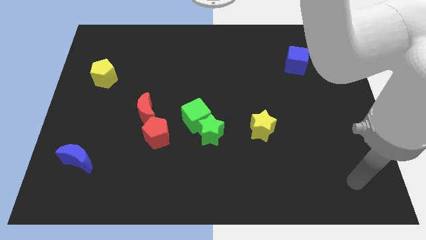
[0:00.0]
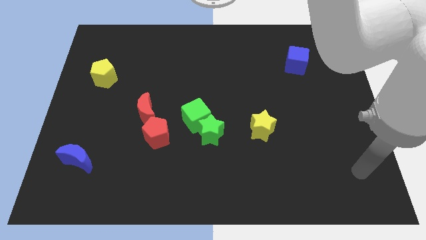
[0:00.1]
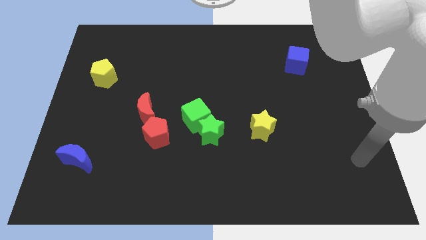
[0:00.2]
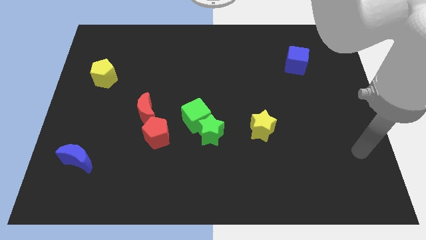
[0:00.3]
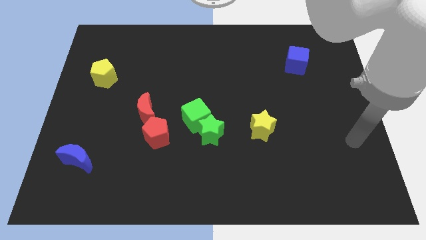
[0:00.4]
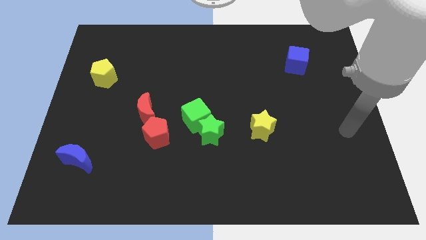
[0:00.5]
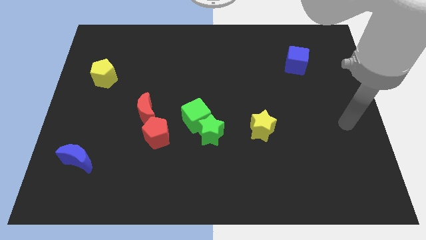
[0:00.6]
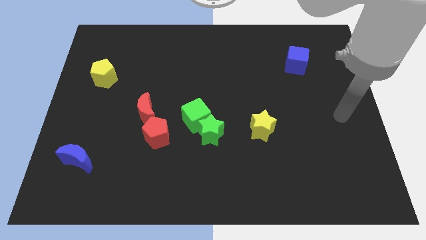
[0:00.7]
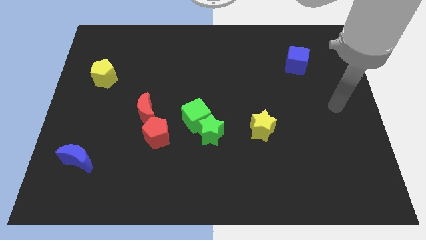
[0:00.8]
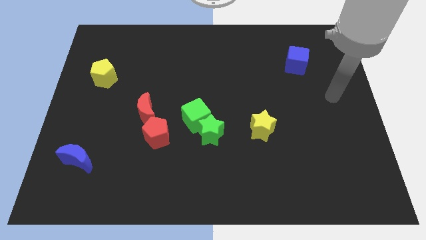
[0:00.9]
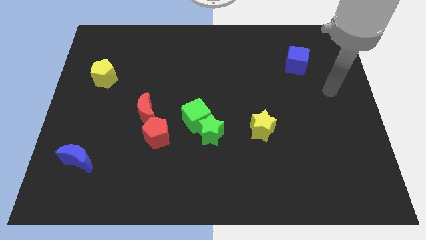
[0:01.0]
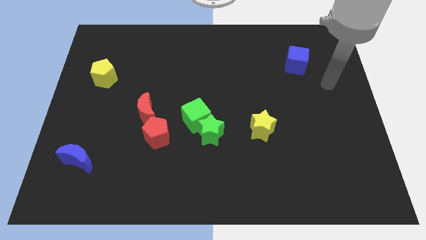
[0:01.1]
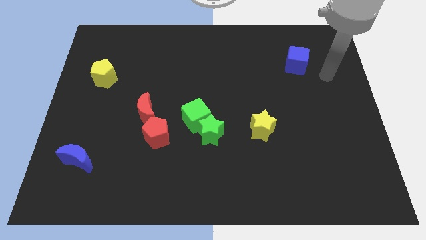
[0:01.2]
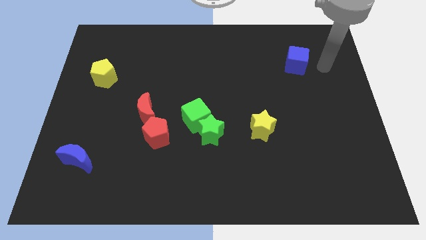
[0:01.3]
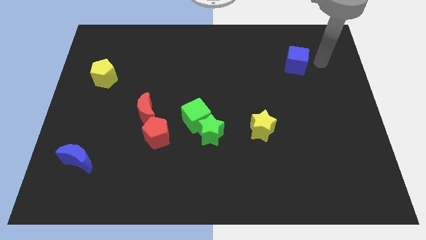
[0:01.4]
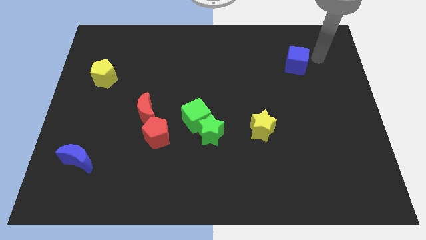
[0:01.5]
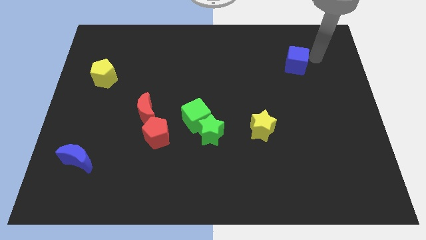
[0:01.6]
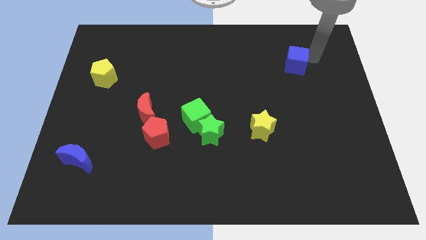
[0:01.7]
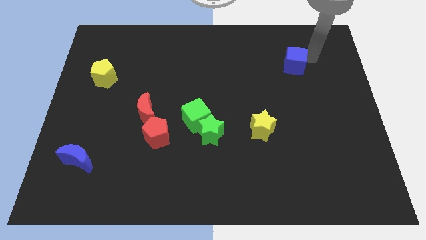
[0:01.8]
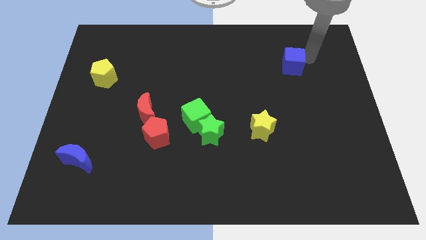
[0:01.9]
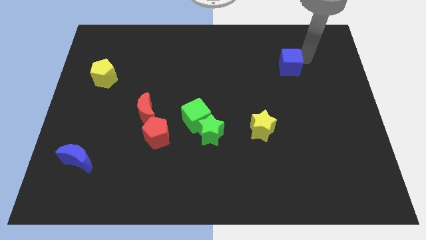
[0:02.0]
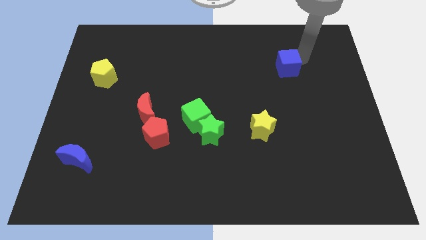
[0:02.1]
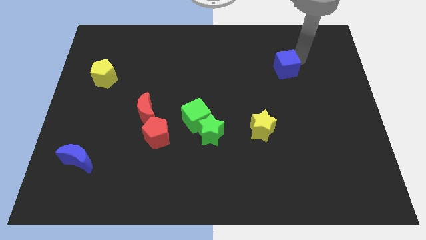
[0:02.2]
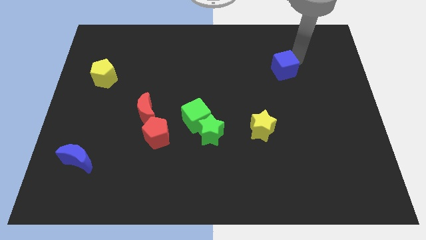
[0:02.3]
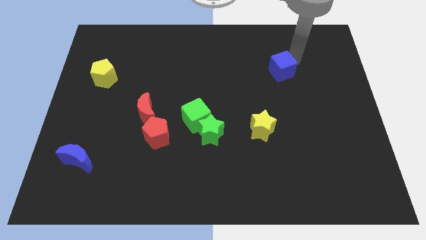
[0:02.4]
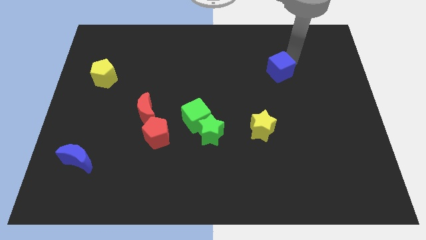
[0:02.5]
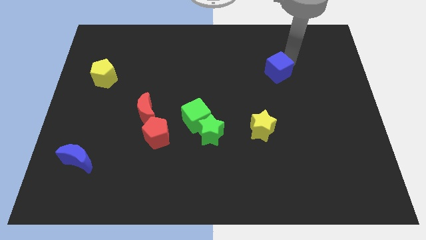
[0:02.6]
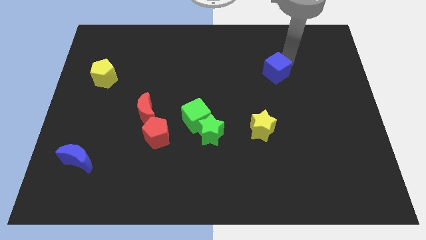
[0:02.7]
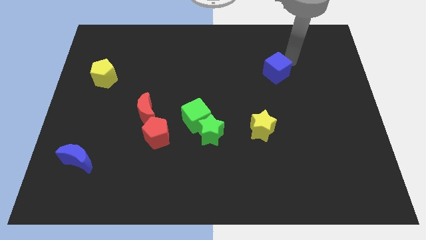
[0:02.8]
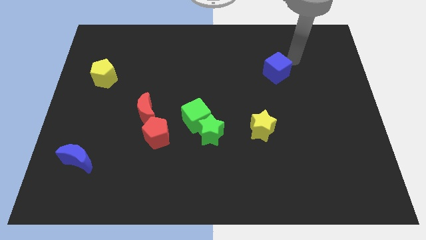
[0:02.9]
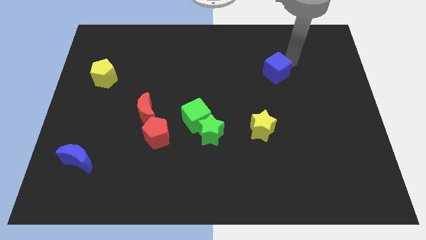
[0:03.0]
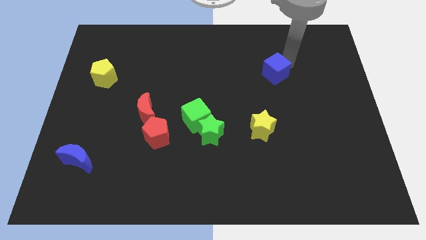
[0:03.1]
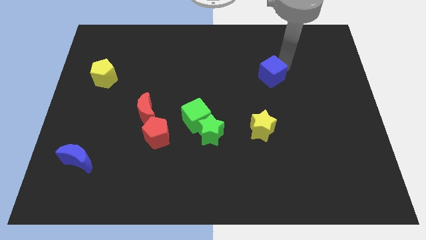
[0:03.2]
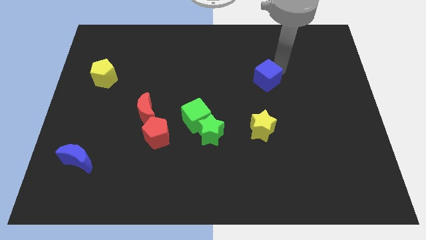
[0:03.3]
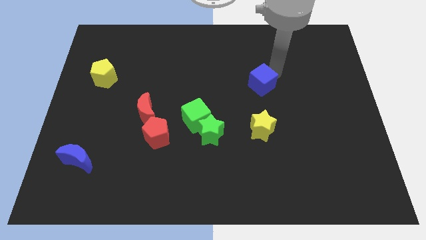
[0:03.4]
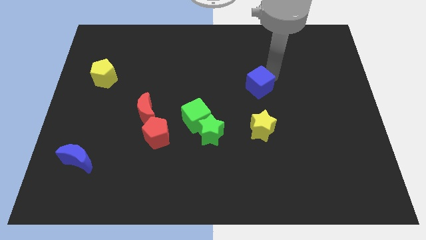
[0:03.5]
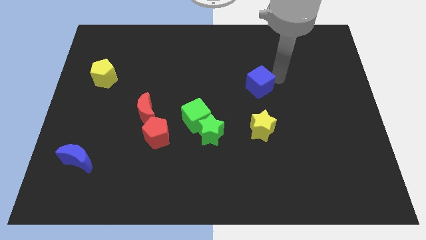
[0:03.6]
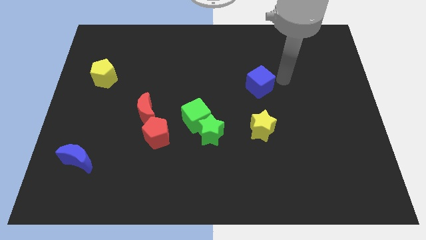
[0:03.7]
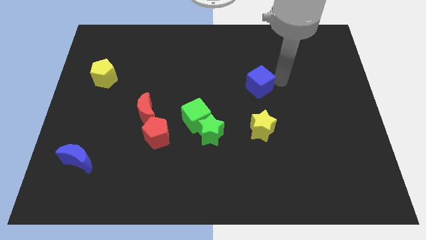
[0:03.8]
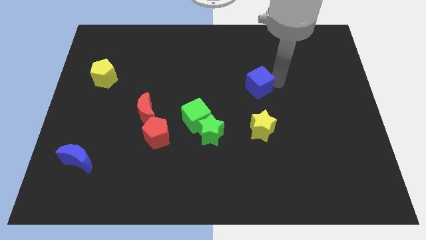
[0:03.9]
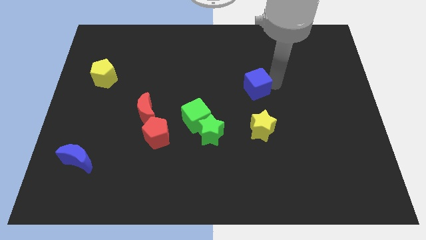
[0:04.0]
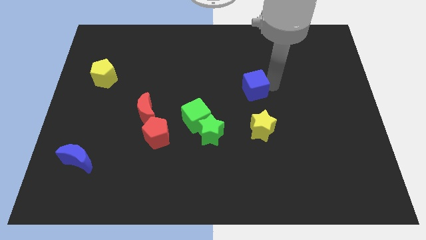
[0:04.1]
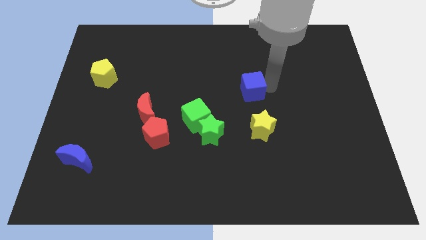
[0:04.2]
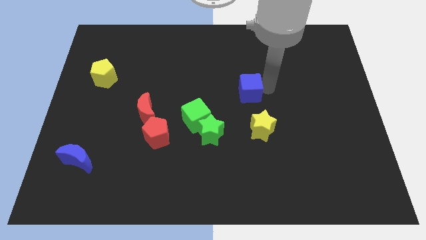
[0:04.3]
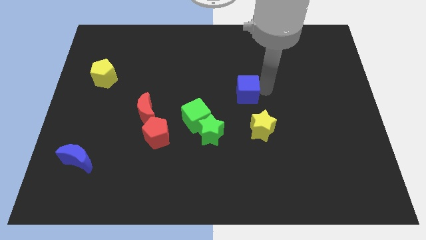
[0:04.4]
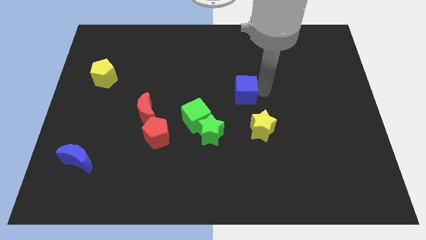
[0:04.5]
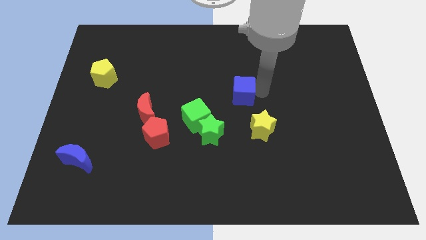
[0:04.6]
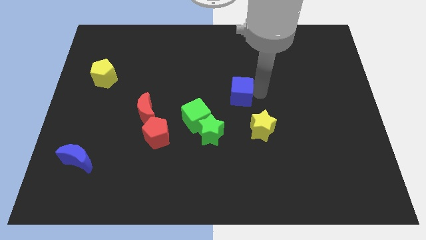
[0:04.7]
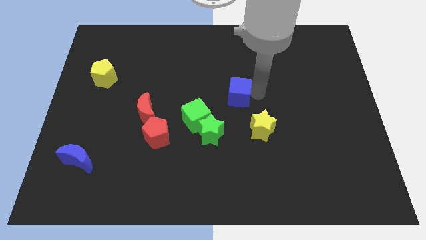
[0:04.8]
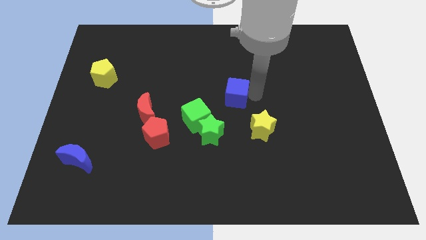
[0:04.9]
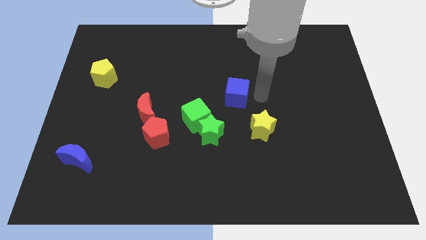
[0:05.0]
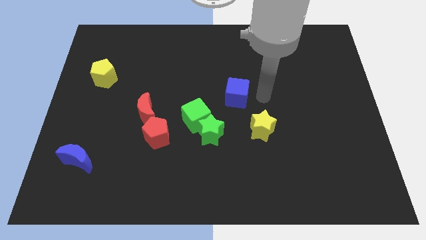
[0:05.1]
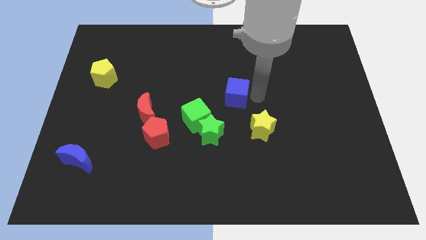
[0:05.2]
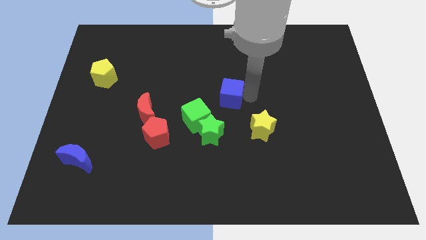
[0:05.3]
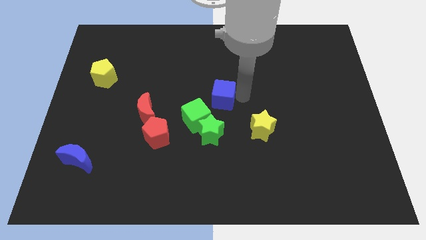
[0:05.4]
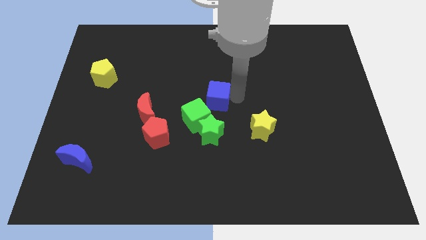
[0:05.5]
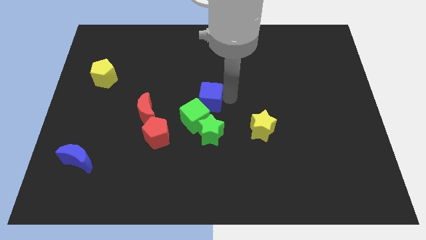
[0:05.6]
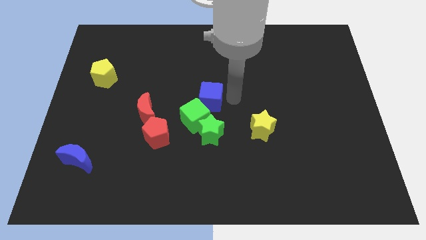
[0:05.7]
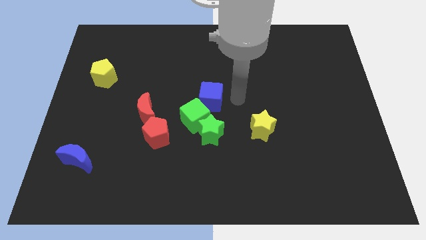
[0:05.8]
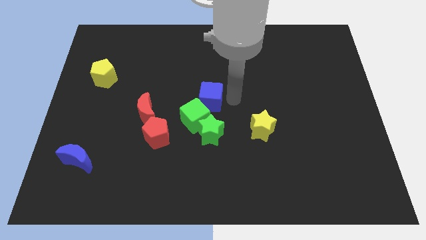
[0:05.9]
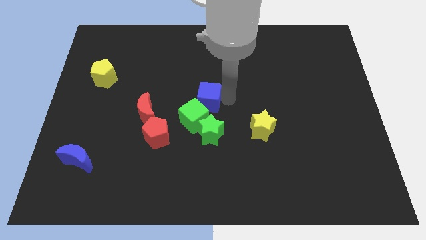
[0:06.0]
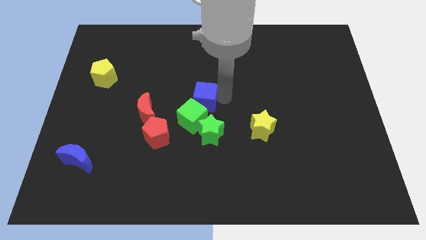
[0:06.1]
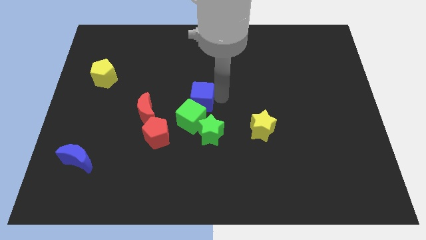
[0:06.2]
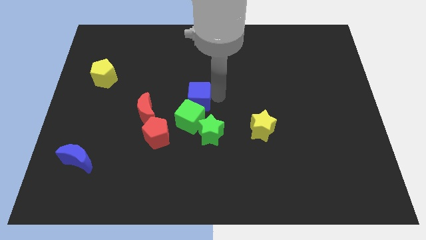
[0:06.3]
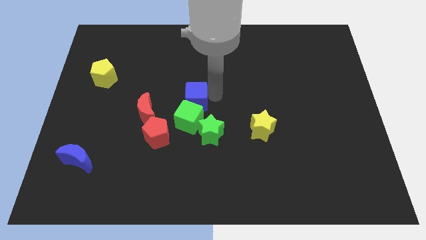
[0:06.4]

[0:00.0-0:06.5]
move the blue cube to the top left of the green star

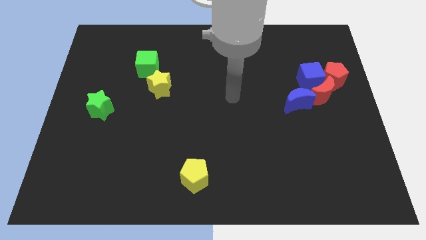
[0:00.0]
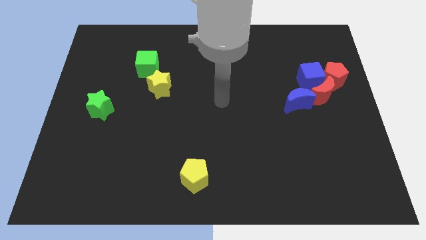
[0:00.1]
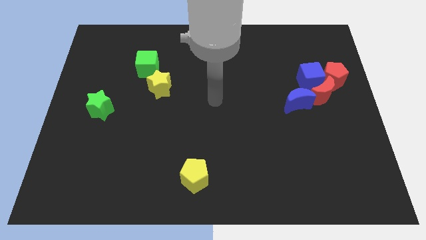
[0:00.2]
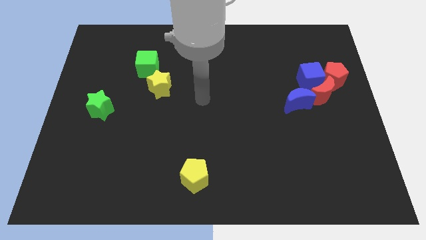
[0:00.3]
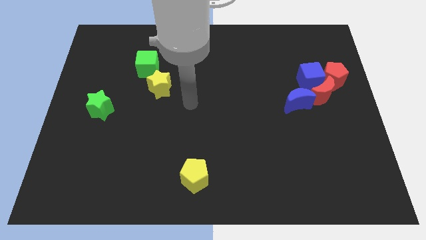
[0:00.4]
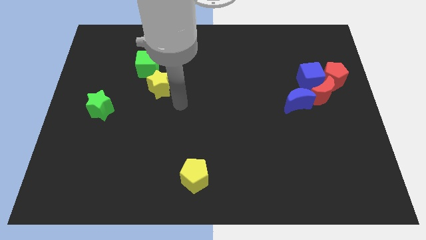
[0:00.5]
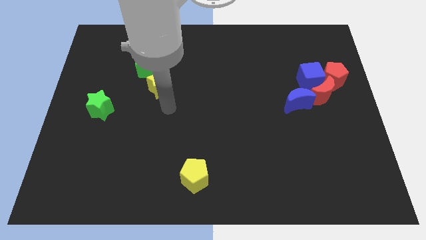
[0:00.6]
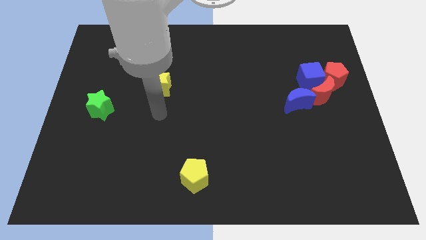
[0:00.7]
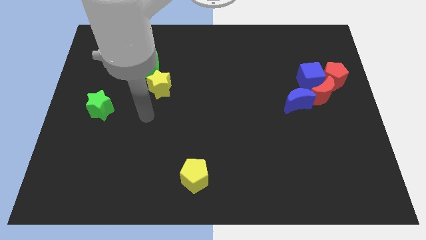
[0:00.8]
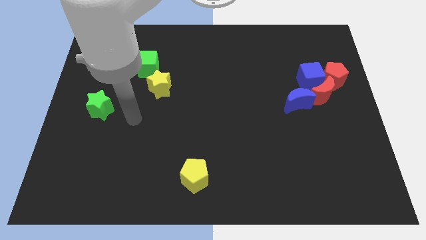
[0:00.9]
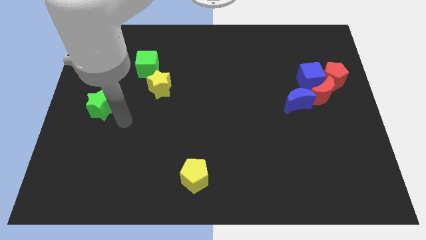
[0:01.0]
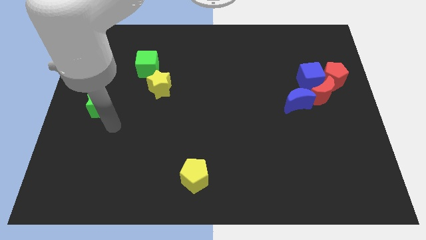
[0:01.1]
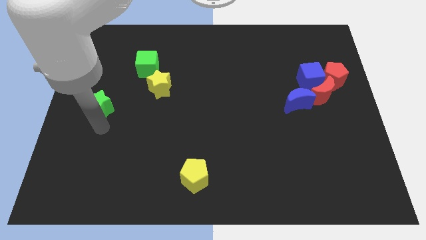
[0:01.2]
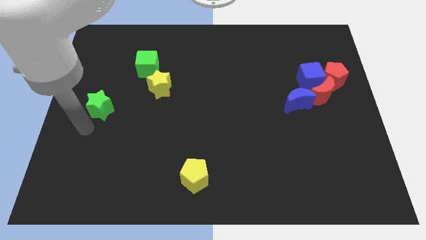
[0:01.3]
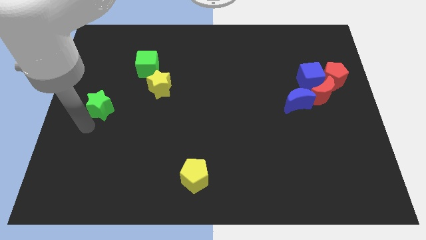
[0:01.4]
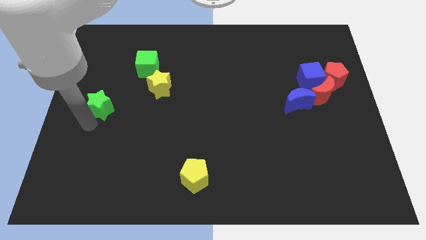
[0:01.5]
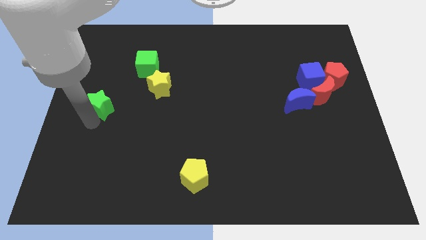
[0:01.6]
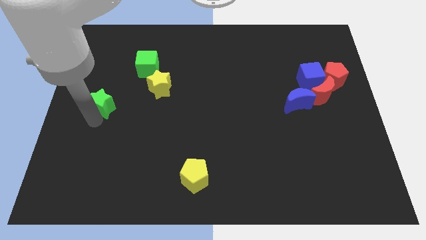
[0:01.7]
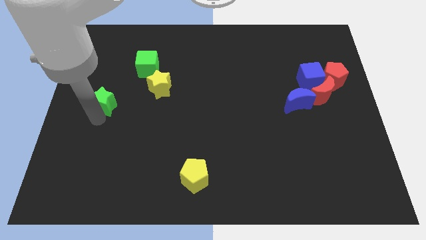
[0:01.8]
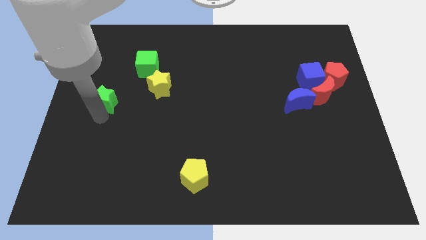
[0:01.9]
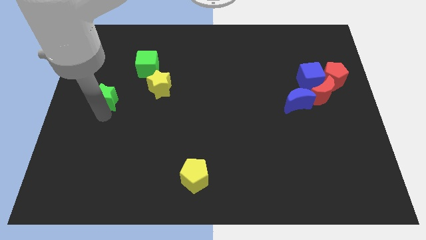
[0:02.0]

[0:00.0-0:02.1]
put the green star to the left of the yellow star
